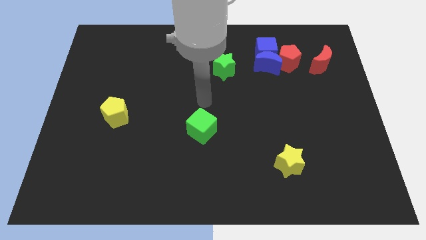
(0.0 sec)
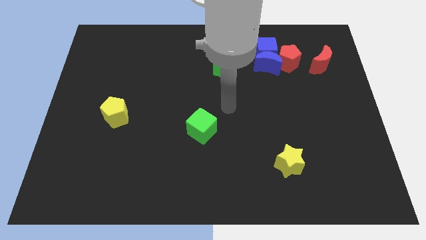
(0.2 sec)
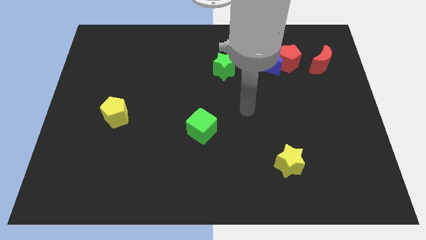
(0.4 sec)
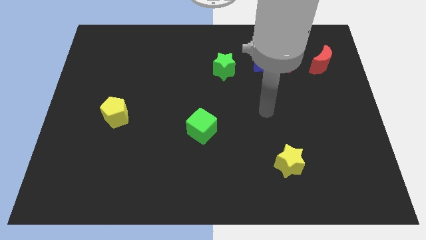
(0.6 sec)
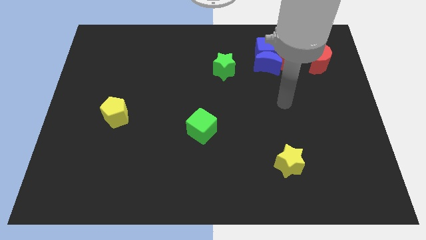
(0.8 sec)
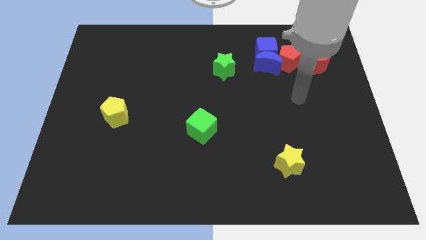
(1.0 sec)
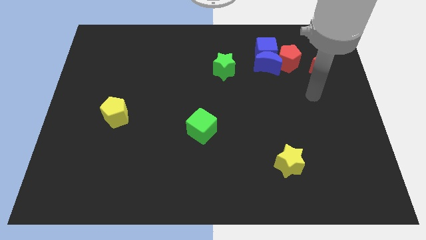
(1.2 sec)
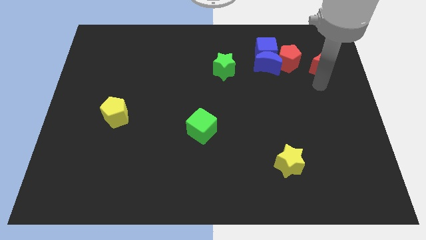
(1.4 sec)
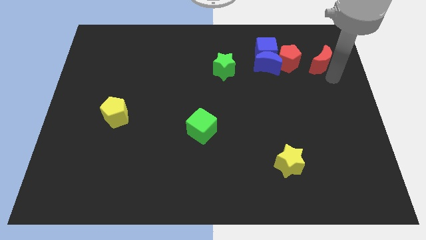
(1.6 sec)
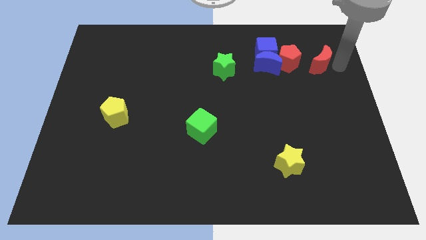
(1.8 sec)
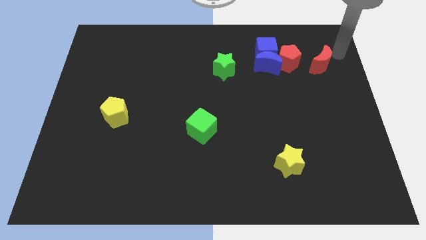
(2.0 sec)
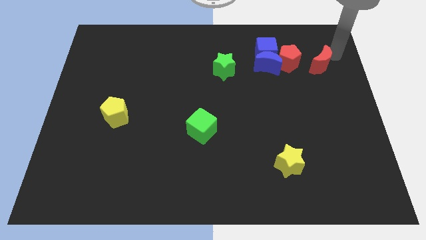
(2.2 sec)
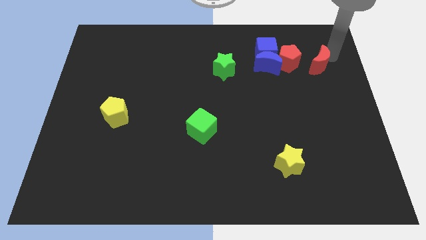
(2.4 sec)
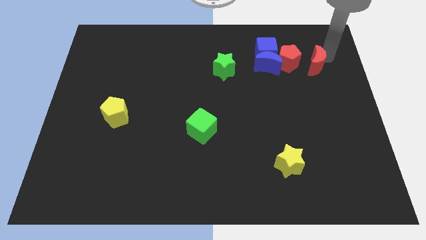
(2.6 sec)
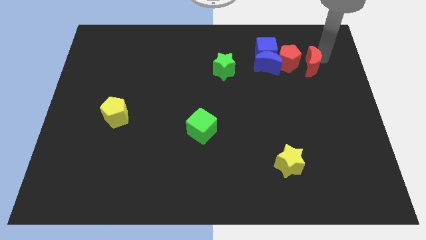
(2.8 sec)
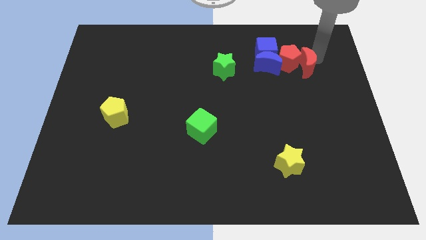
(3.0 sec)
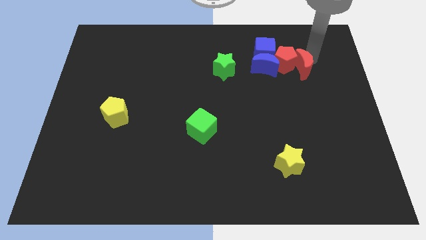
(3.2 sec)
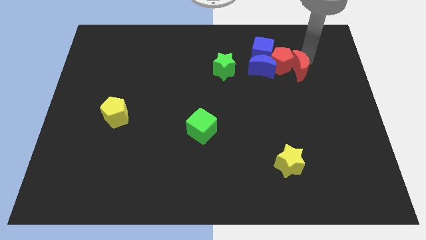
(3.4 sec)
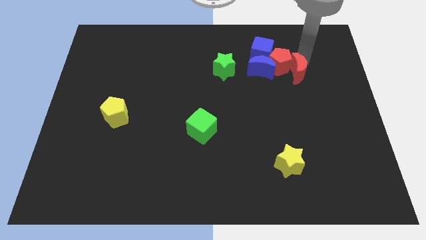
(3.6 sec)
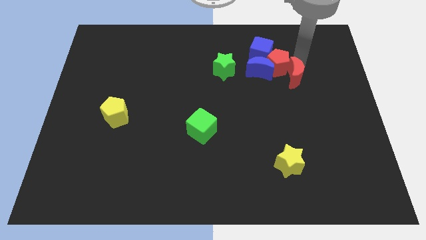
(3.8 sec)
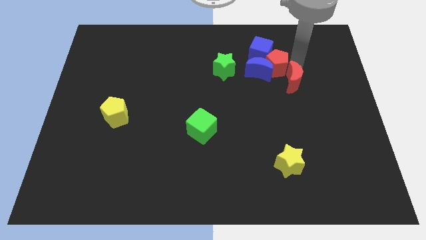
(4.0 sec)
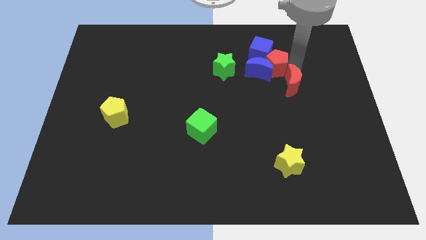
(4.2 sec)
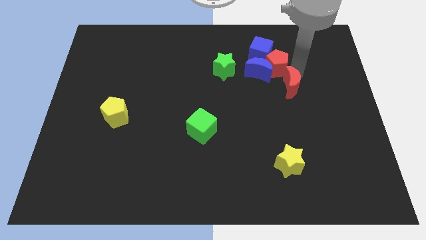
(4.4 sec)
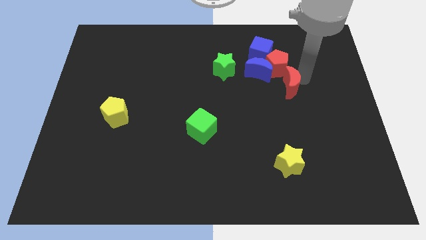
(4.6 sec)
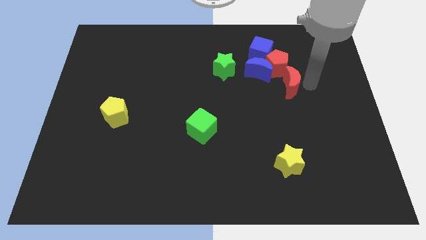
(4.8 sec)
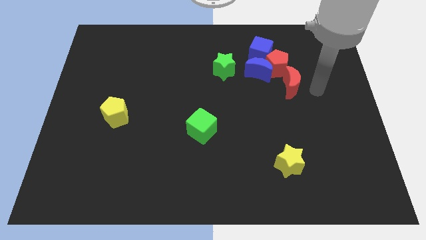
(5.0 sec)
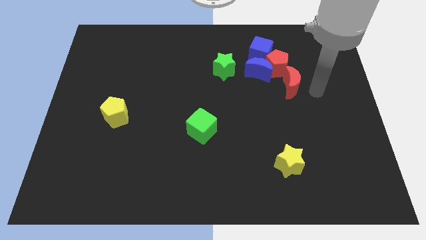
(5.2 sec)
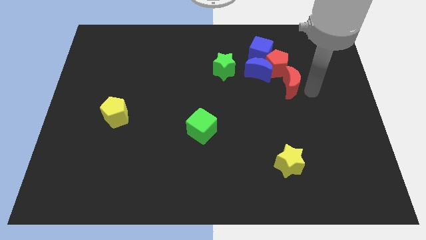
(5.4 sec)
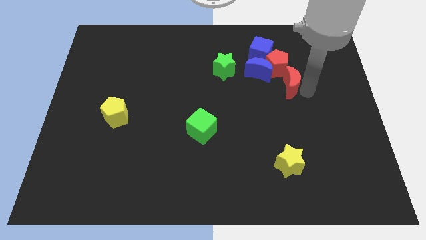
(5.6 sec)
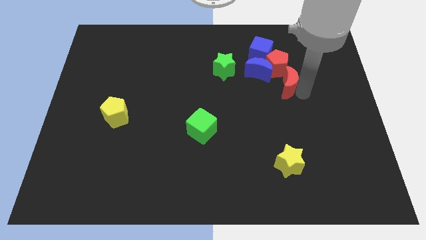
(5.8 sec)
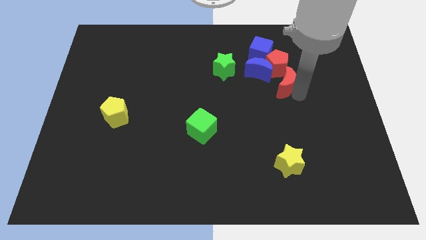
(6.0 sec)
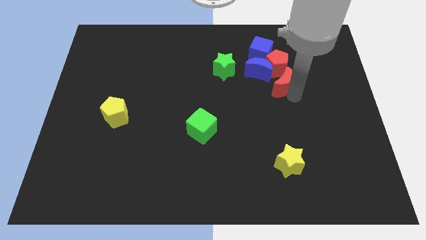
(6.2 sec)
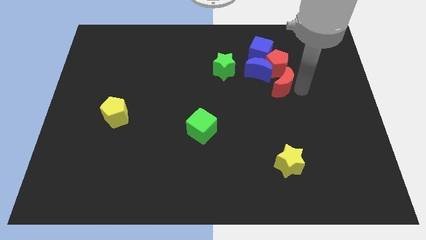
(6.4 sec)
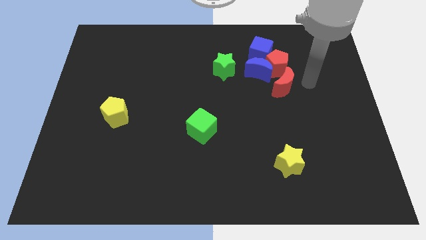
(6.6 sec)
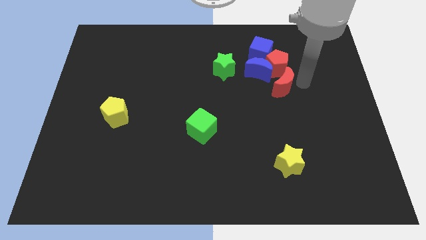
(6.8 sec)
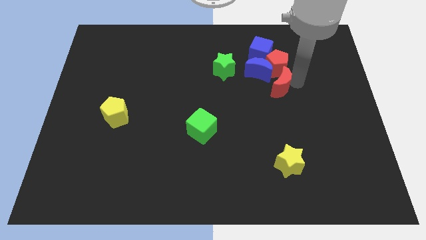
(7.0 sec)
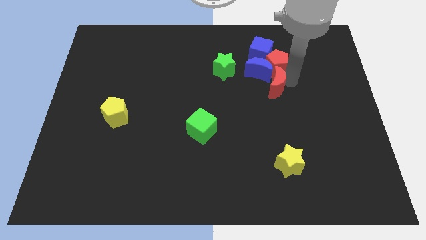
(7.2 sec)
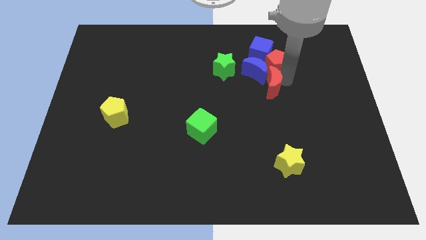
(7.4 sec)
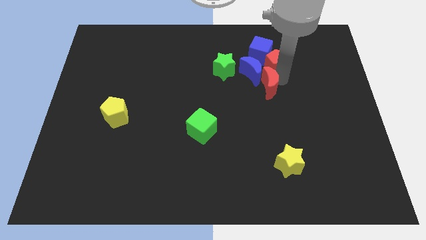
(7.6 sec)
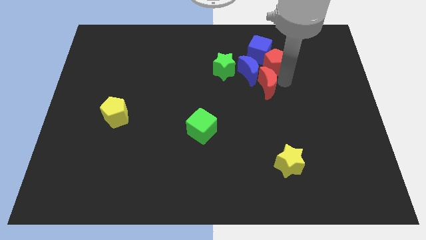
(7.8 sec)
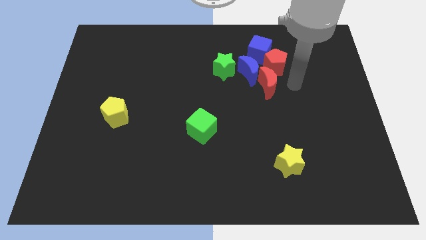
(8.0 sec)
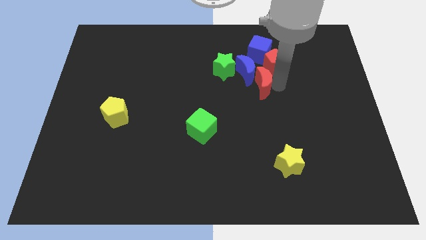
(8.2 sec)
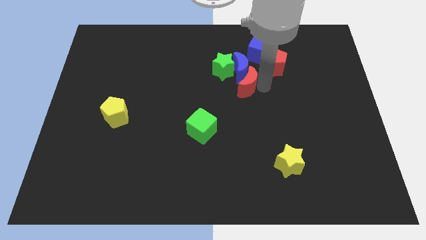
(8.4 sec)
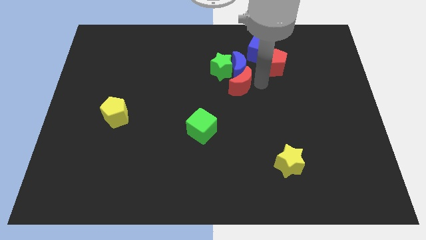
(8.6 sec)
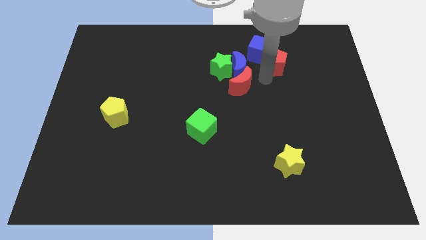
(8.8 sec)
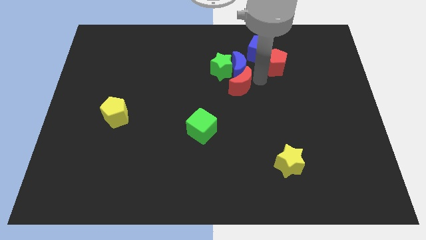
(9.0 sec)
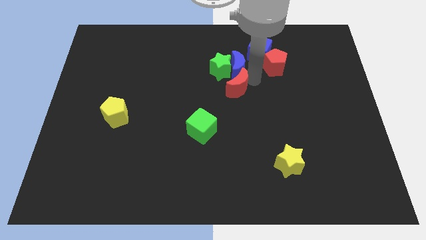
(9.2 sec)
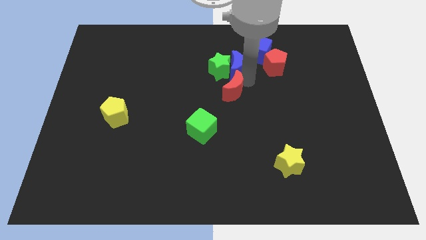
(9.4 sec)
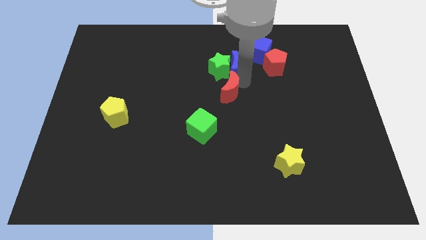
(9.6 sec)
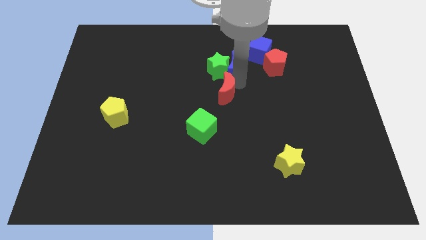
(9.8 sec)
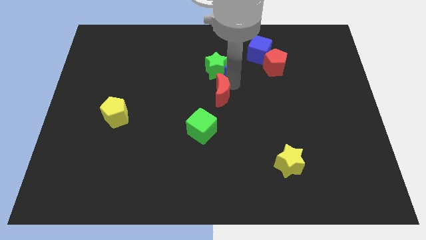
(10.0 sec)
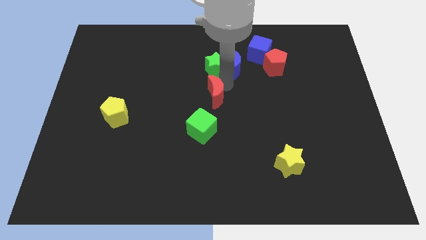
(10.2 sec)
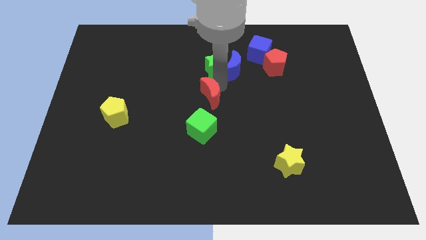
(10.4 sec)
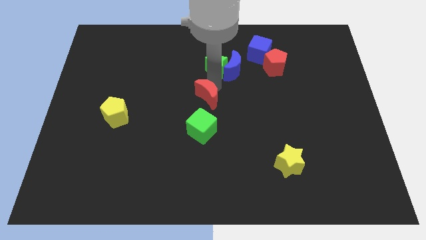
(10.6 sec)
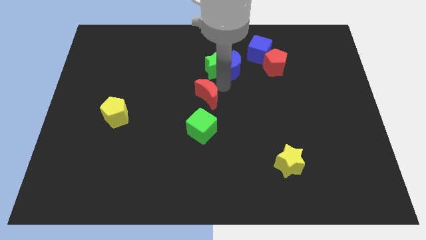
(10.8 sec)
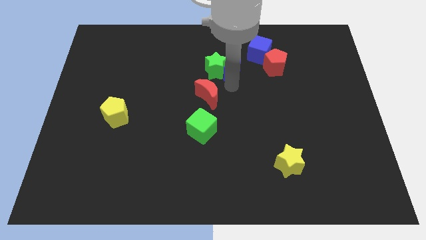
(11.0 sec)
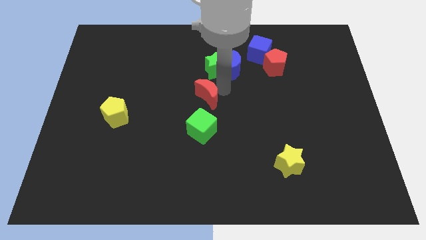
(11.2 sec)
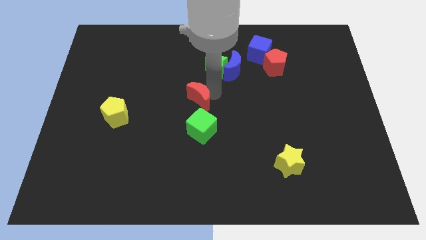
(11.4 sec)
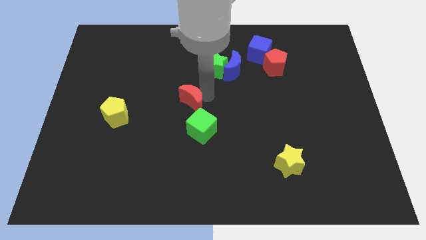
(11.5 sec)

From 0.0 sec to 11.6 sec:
push the red moon to the top left of the green cube

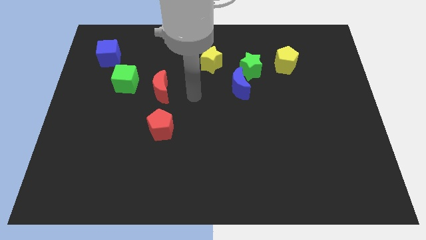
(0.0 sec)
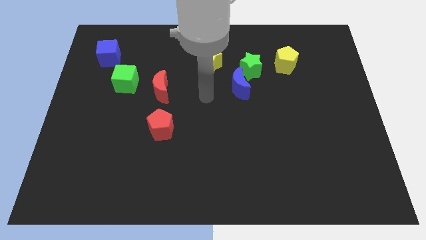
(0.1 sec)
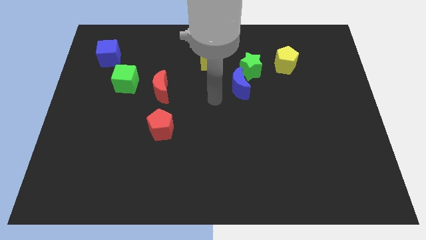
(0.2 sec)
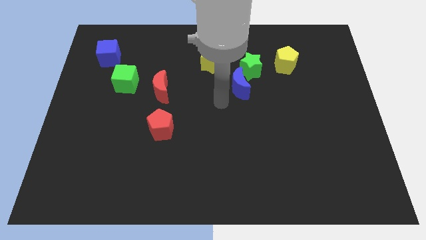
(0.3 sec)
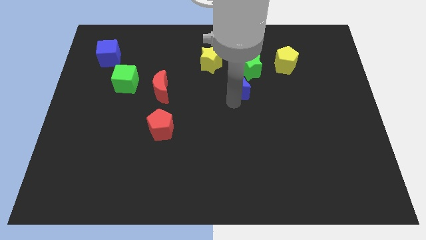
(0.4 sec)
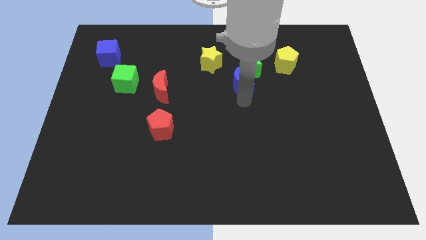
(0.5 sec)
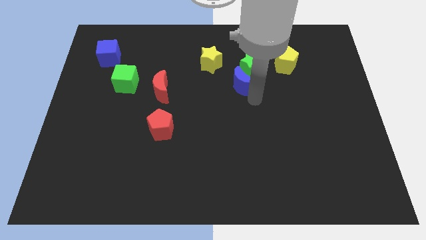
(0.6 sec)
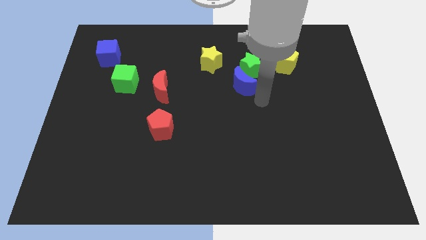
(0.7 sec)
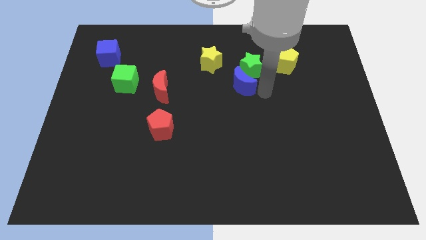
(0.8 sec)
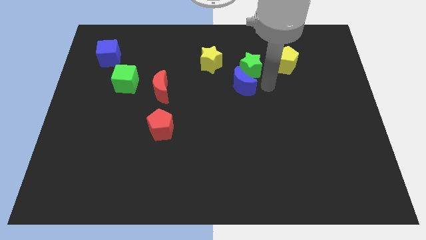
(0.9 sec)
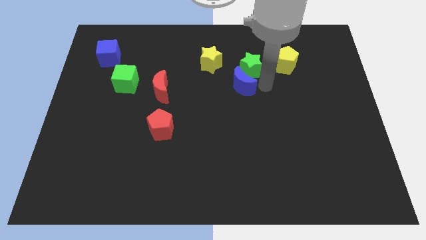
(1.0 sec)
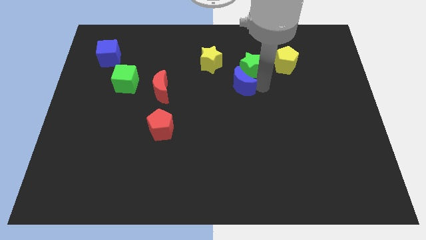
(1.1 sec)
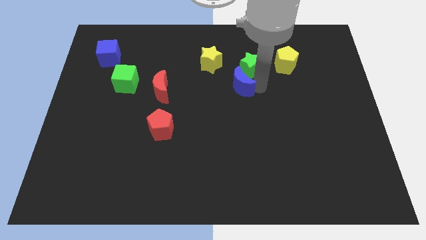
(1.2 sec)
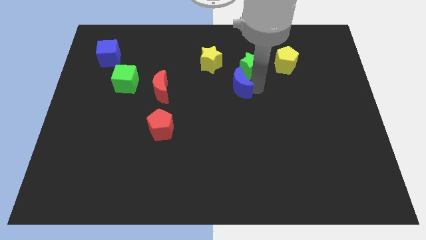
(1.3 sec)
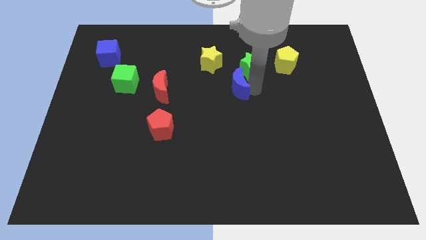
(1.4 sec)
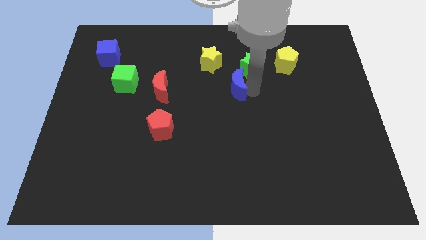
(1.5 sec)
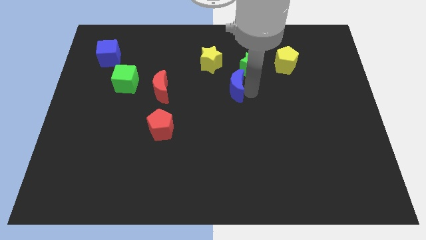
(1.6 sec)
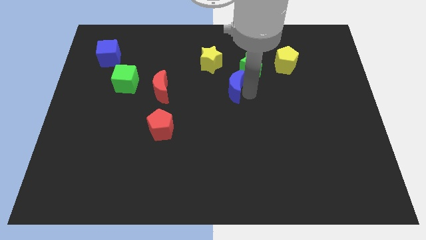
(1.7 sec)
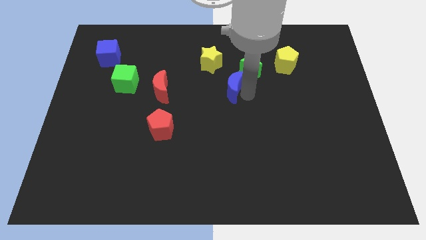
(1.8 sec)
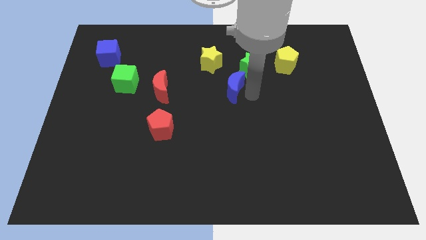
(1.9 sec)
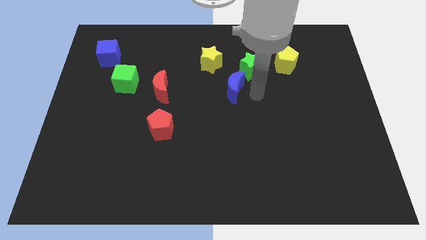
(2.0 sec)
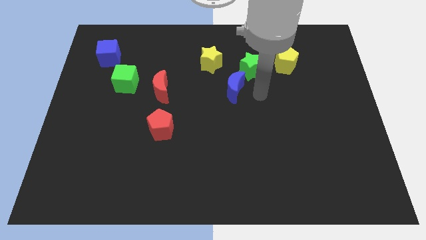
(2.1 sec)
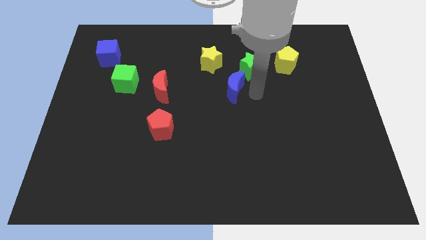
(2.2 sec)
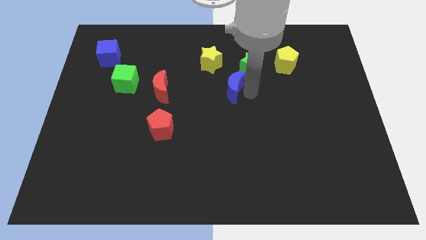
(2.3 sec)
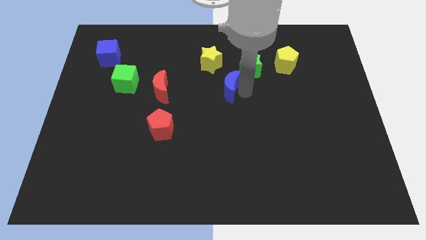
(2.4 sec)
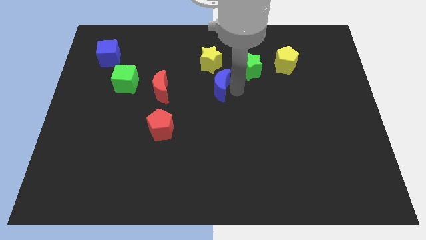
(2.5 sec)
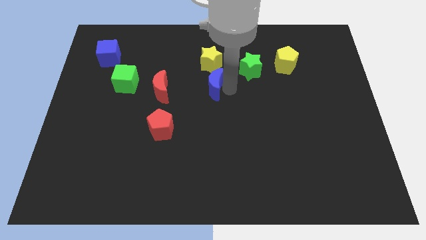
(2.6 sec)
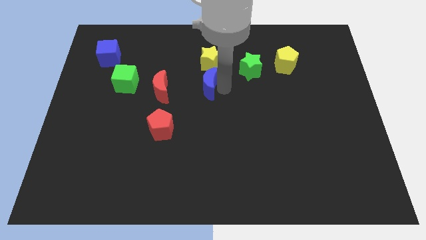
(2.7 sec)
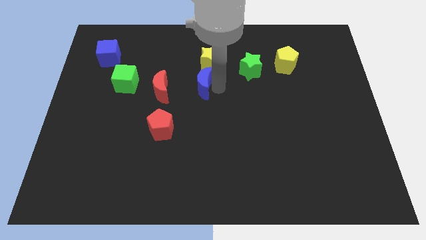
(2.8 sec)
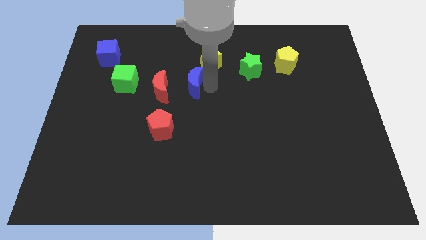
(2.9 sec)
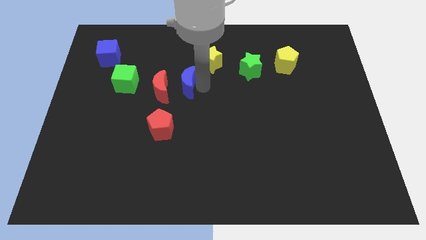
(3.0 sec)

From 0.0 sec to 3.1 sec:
move the blue moon right of the green cube
